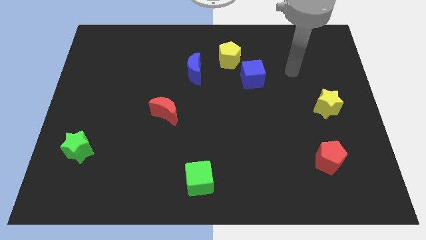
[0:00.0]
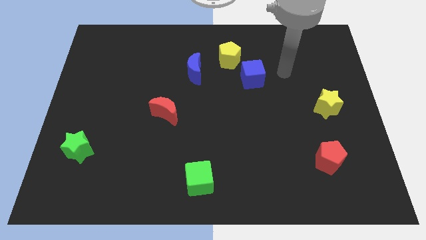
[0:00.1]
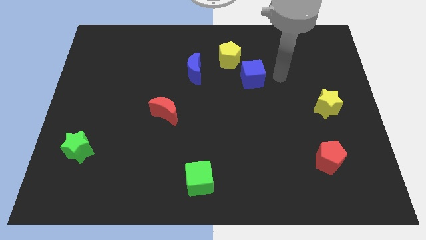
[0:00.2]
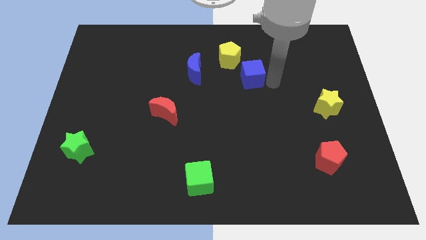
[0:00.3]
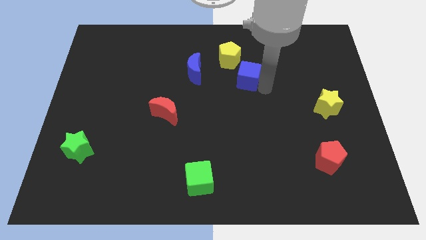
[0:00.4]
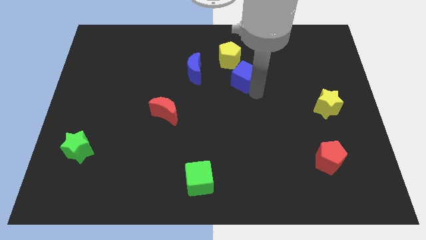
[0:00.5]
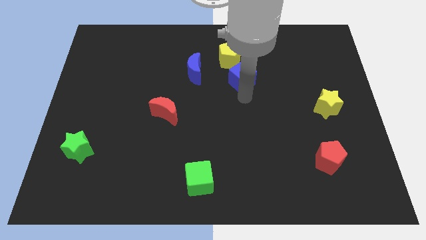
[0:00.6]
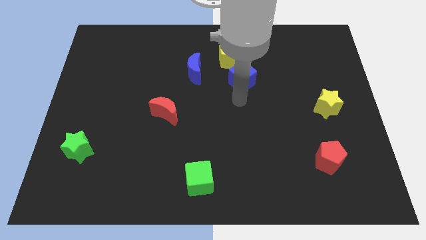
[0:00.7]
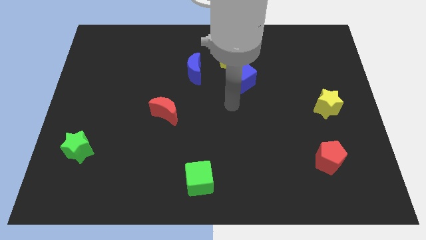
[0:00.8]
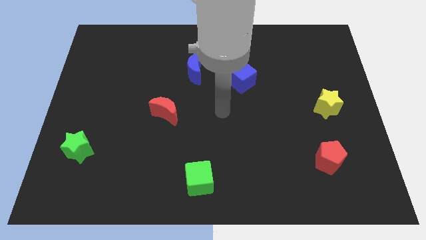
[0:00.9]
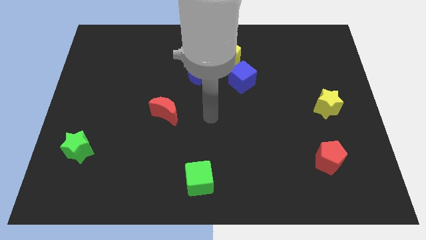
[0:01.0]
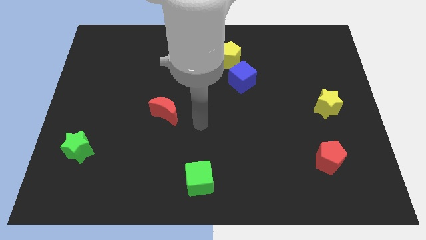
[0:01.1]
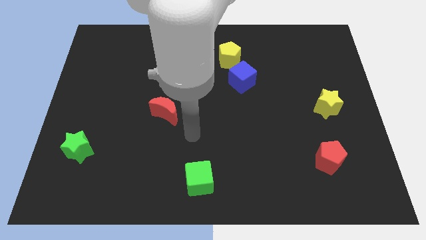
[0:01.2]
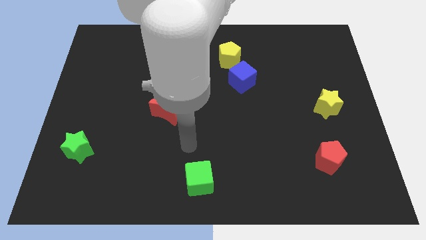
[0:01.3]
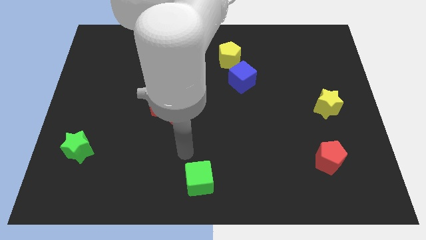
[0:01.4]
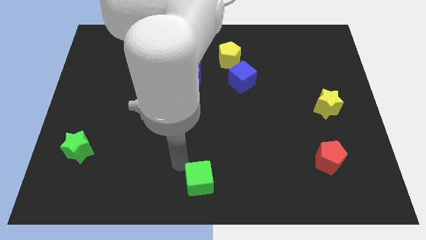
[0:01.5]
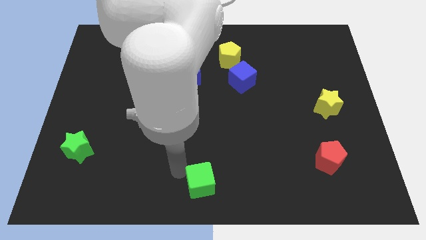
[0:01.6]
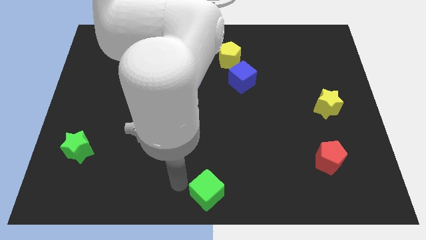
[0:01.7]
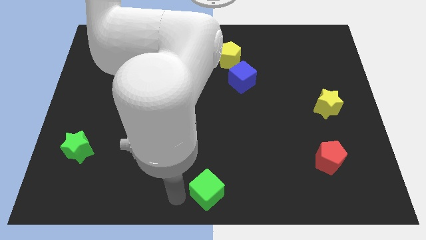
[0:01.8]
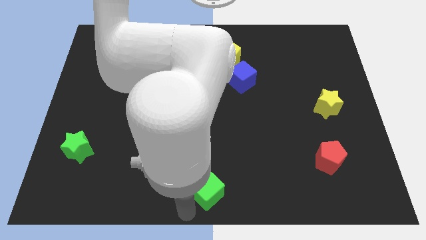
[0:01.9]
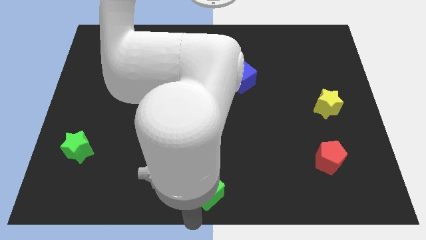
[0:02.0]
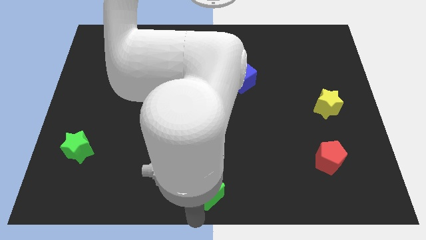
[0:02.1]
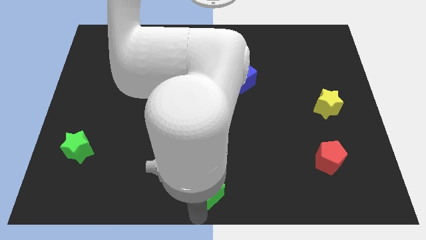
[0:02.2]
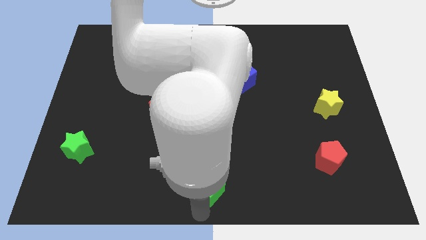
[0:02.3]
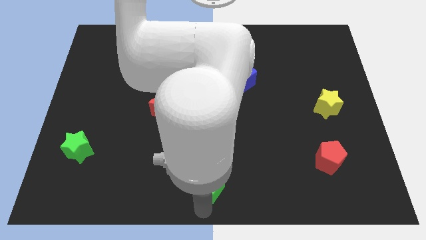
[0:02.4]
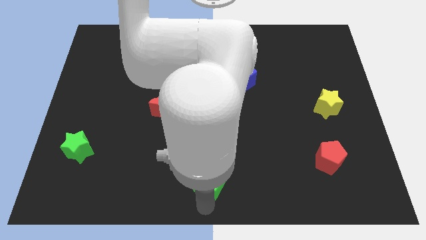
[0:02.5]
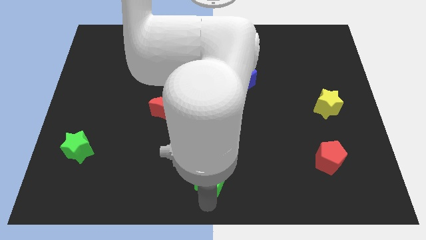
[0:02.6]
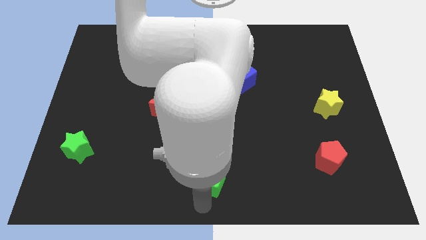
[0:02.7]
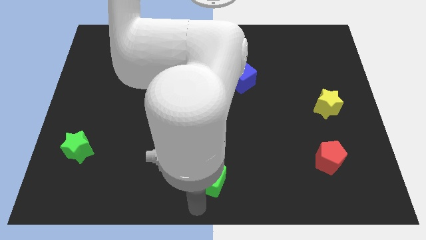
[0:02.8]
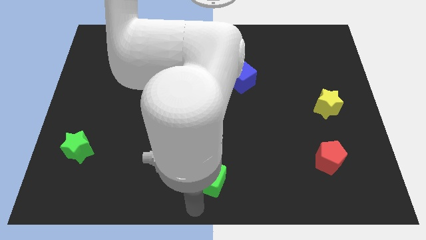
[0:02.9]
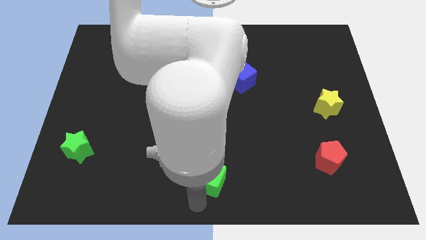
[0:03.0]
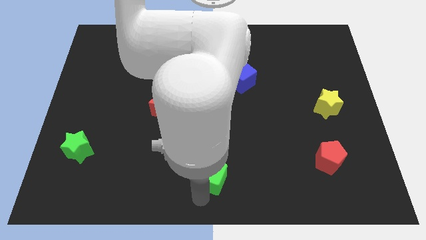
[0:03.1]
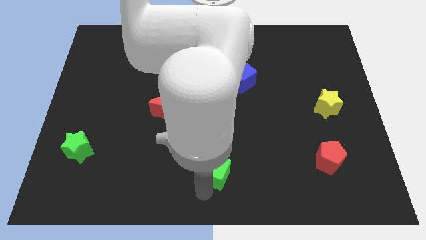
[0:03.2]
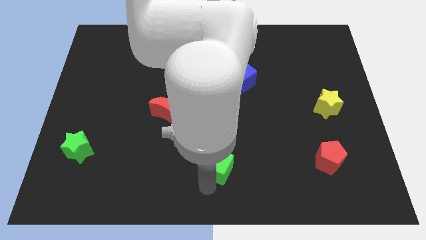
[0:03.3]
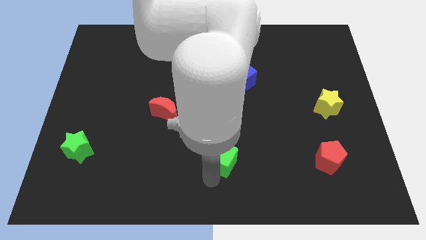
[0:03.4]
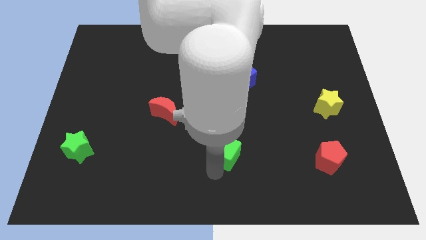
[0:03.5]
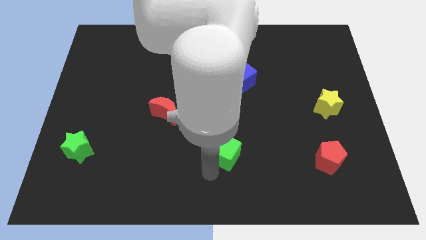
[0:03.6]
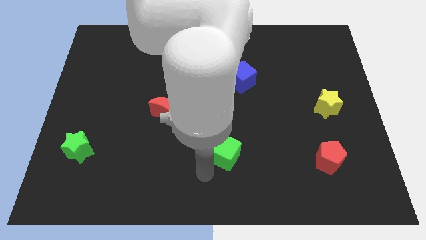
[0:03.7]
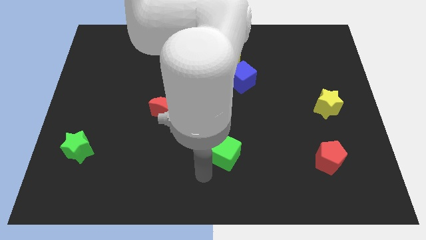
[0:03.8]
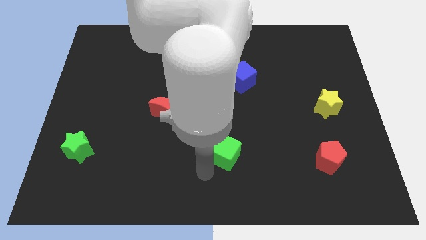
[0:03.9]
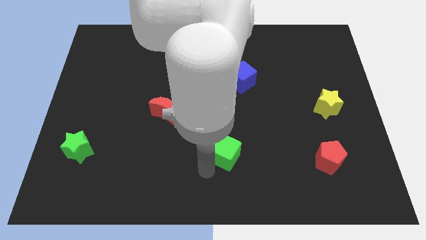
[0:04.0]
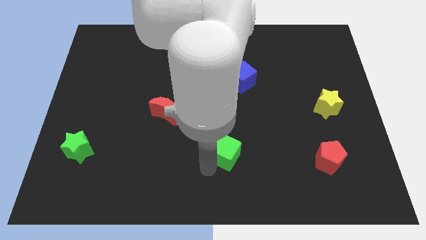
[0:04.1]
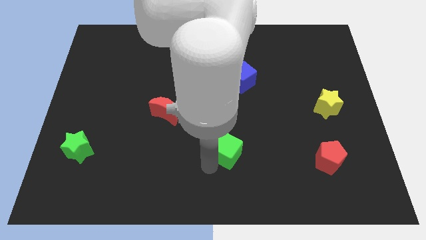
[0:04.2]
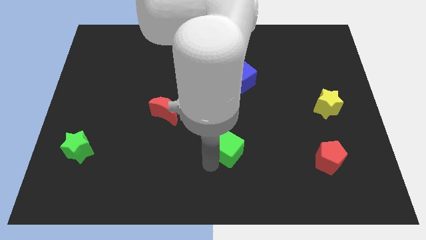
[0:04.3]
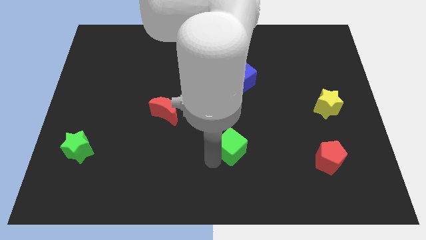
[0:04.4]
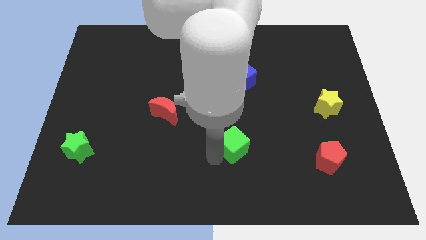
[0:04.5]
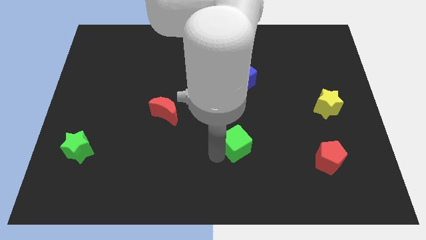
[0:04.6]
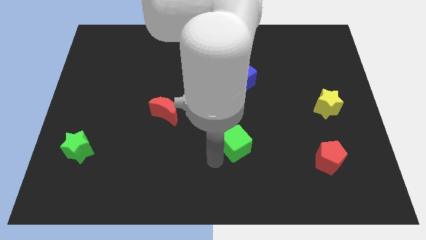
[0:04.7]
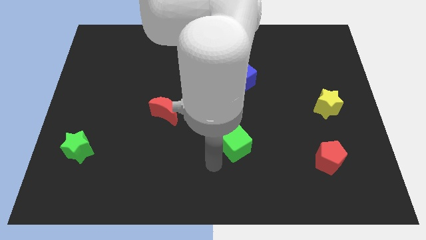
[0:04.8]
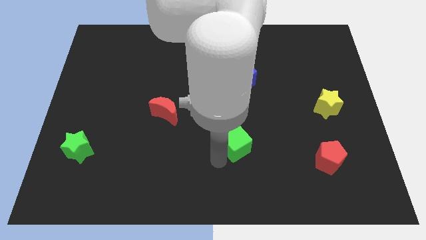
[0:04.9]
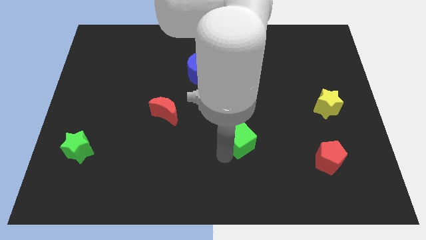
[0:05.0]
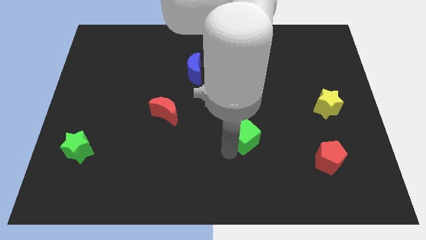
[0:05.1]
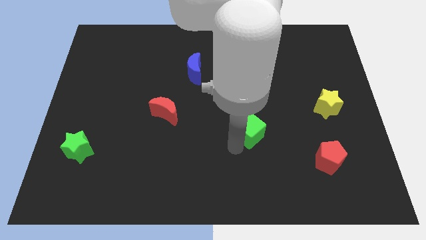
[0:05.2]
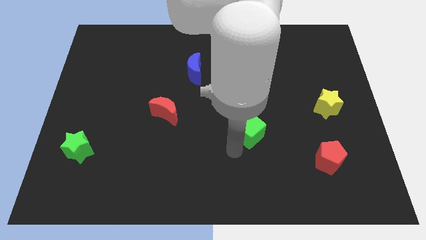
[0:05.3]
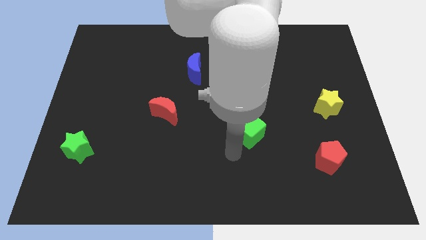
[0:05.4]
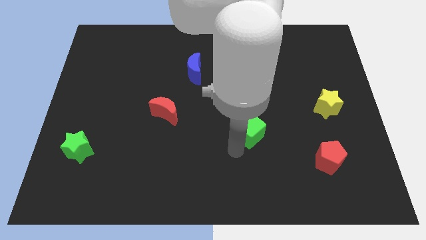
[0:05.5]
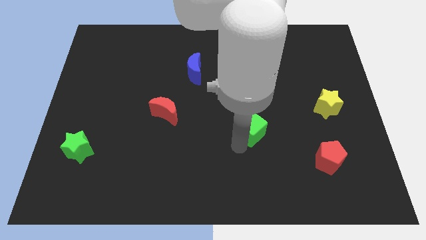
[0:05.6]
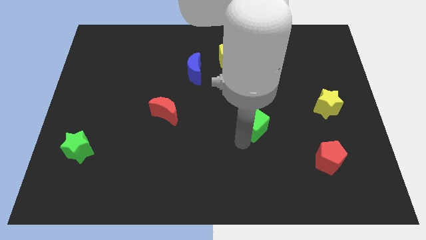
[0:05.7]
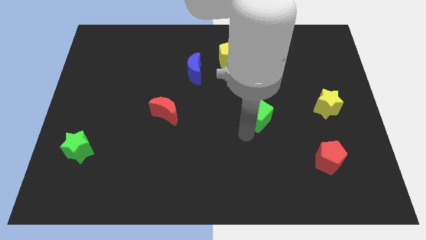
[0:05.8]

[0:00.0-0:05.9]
move the green cube upwards and then right

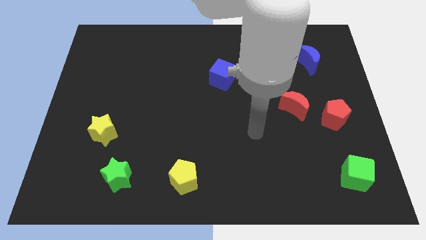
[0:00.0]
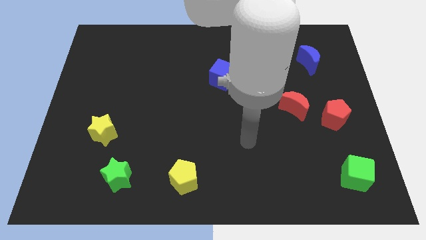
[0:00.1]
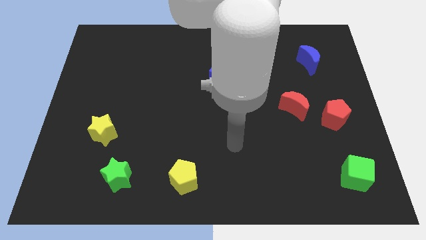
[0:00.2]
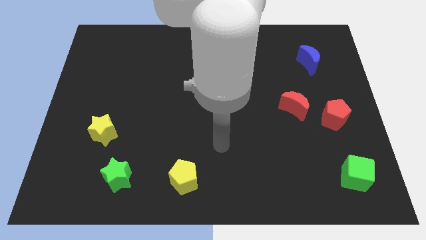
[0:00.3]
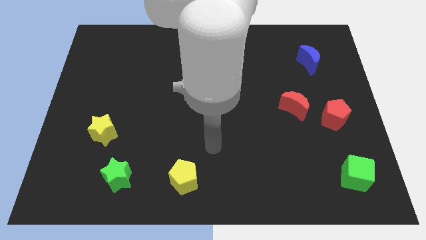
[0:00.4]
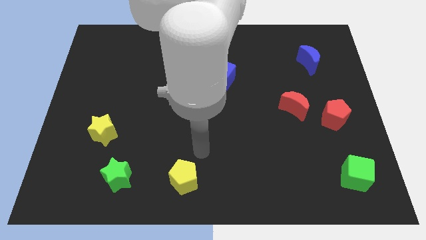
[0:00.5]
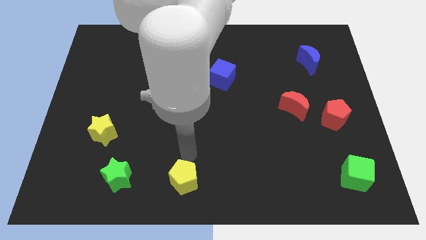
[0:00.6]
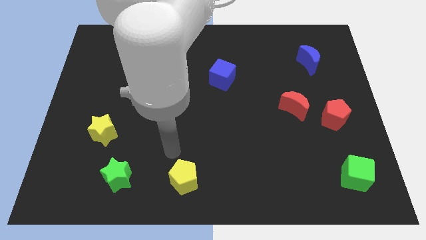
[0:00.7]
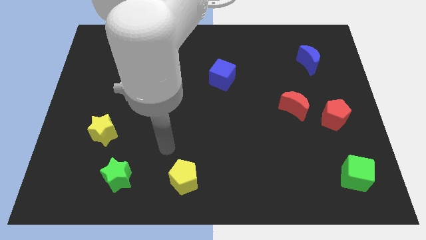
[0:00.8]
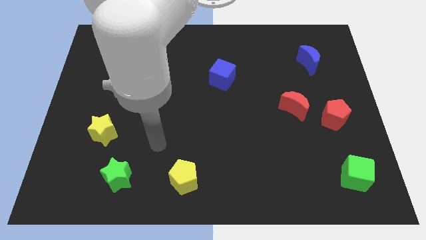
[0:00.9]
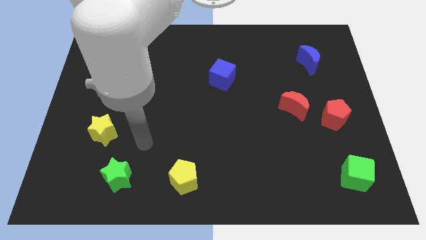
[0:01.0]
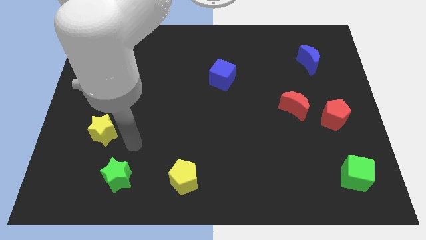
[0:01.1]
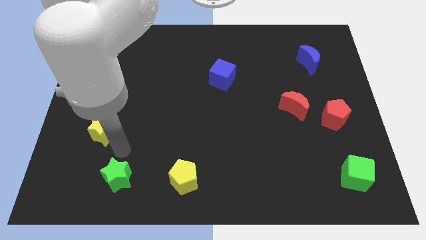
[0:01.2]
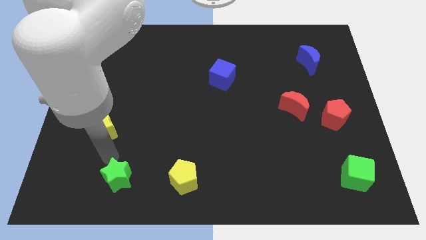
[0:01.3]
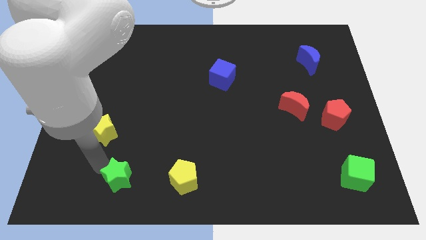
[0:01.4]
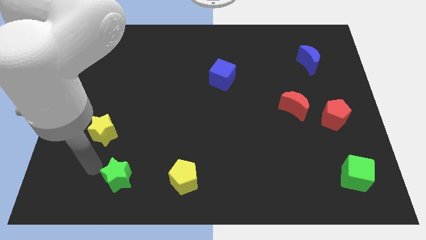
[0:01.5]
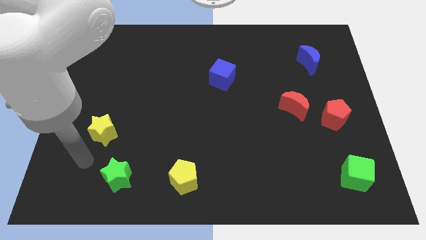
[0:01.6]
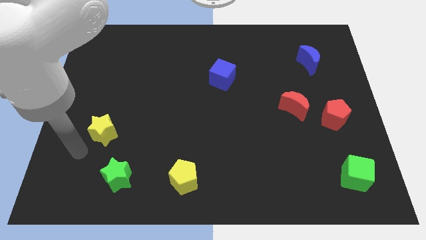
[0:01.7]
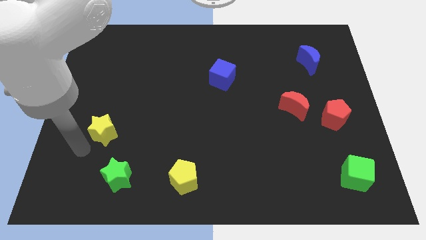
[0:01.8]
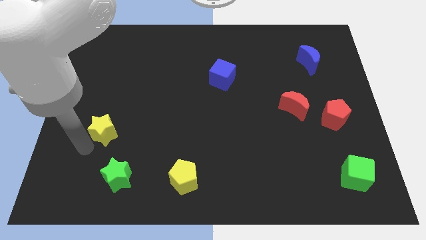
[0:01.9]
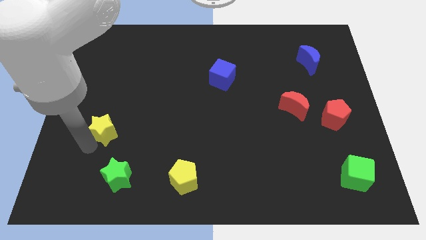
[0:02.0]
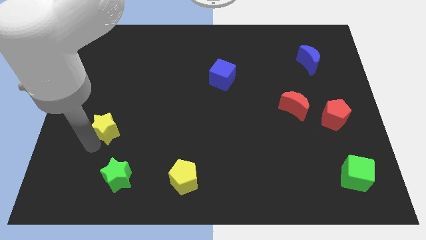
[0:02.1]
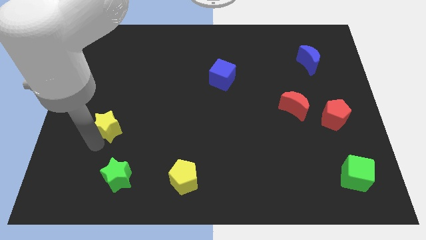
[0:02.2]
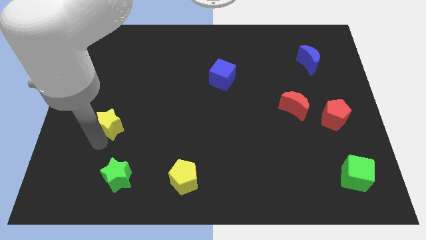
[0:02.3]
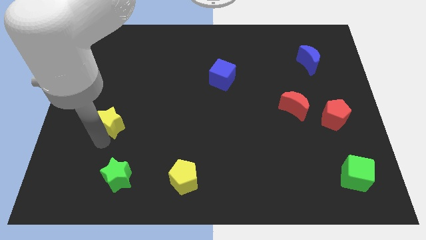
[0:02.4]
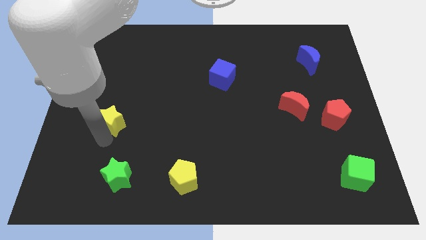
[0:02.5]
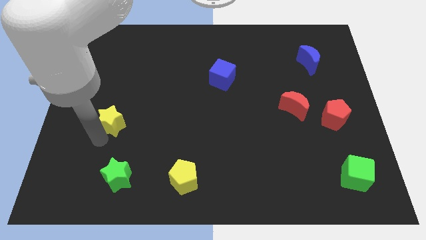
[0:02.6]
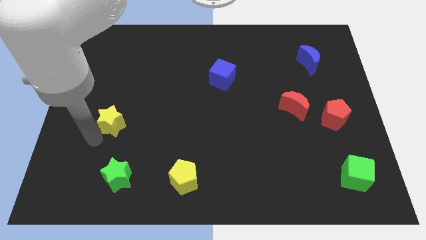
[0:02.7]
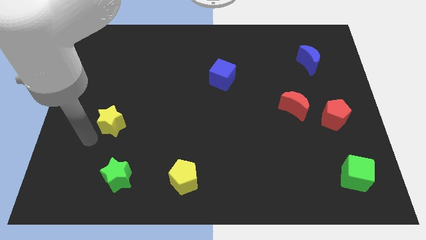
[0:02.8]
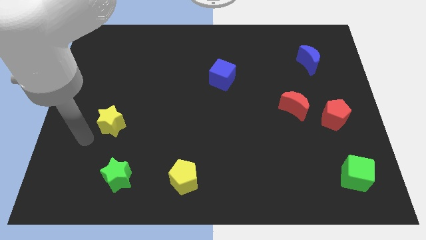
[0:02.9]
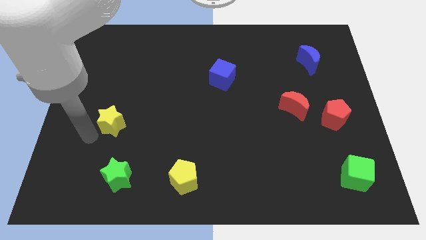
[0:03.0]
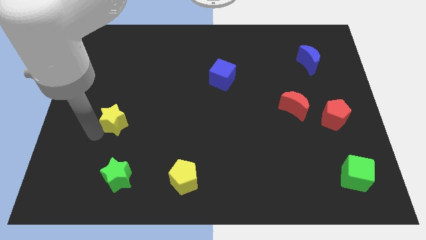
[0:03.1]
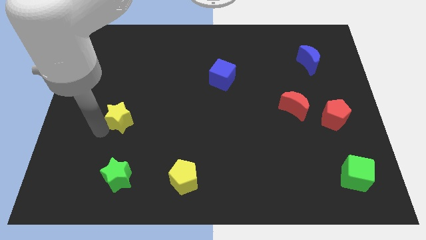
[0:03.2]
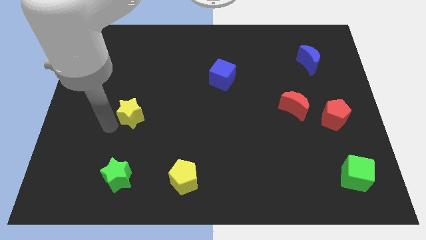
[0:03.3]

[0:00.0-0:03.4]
slide the yellow star upwards and right a bit
